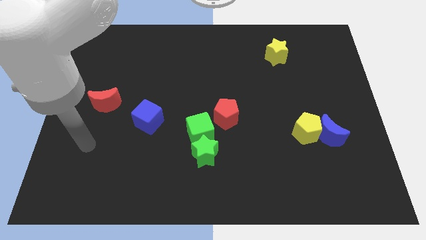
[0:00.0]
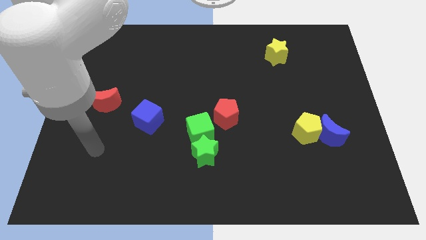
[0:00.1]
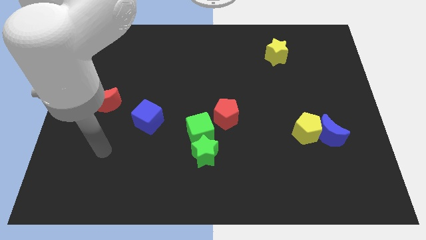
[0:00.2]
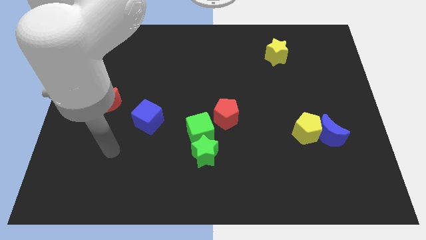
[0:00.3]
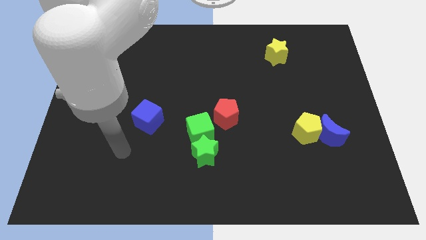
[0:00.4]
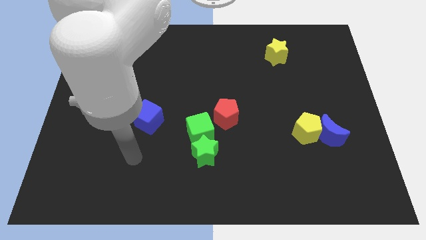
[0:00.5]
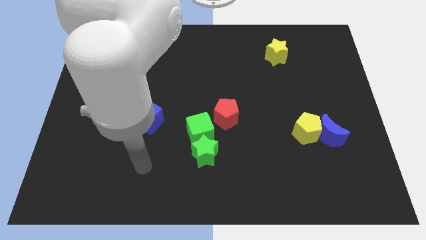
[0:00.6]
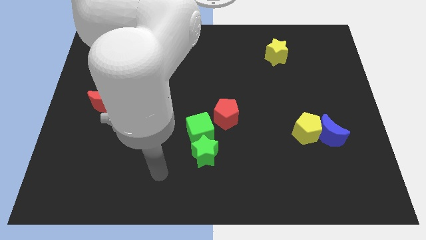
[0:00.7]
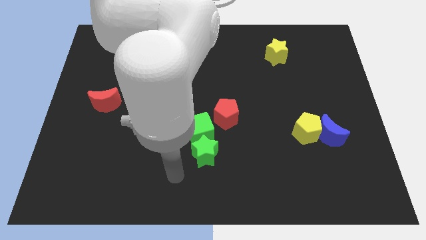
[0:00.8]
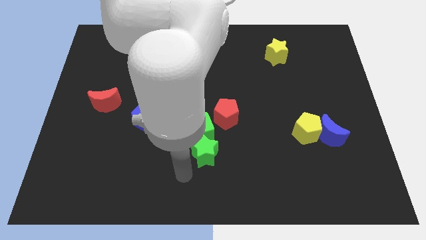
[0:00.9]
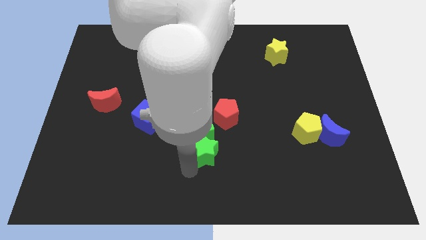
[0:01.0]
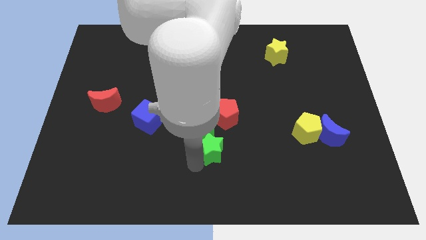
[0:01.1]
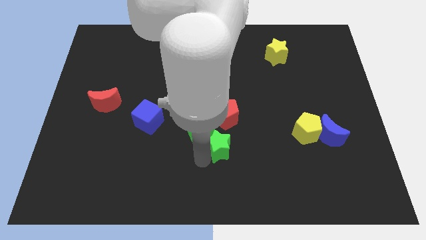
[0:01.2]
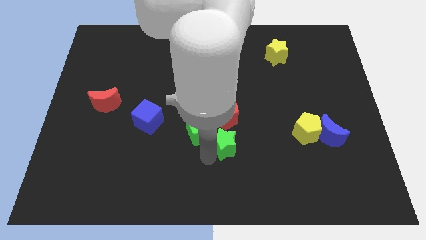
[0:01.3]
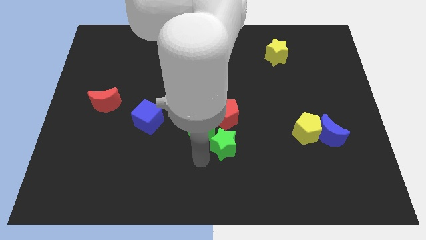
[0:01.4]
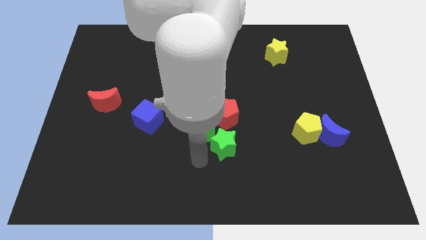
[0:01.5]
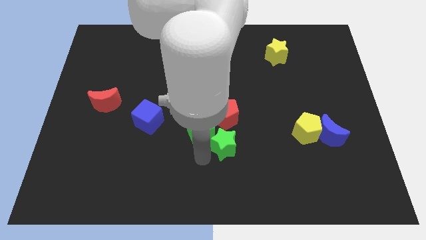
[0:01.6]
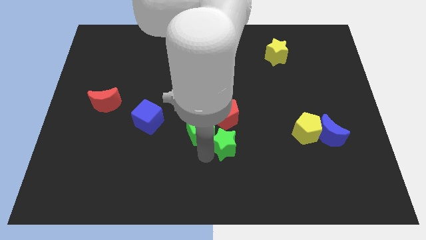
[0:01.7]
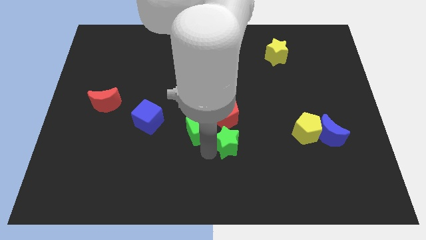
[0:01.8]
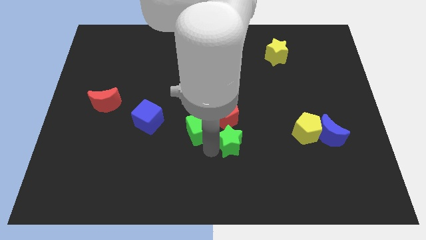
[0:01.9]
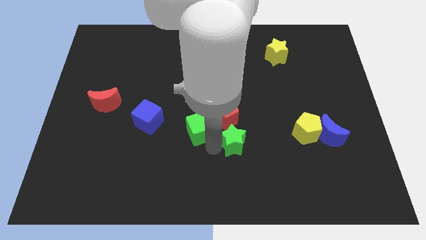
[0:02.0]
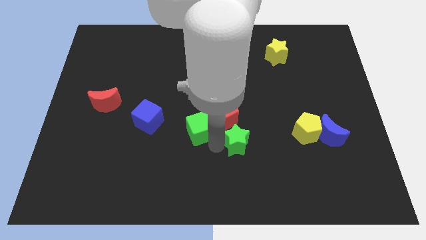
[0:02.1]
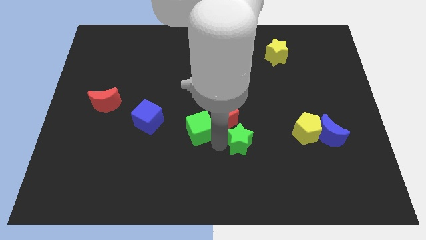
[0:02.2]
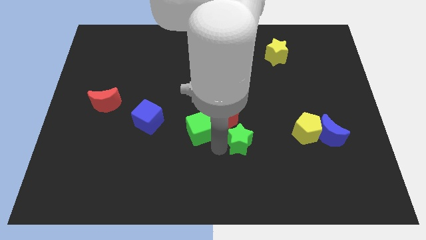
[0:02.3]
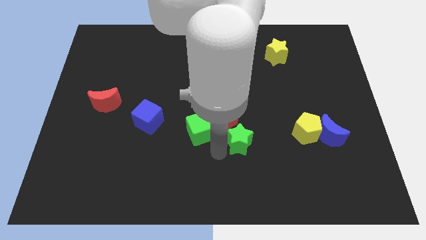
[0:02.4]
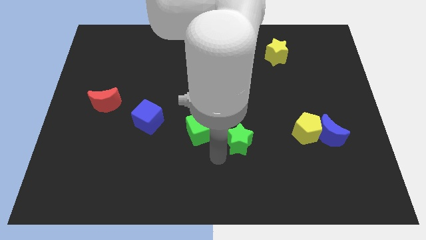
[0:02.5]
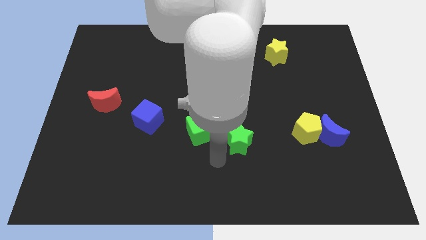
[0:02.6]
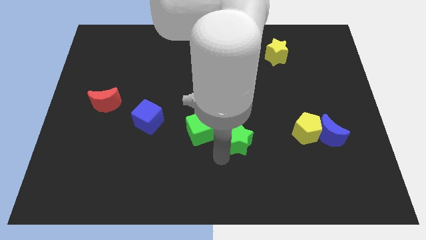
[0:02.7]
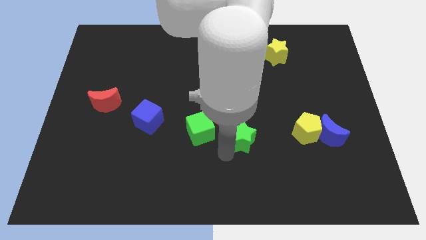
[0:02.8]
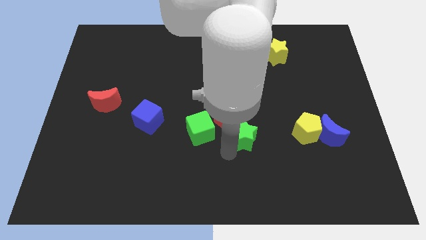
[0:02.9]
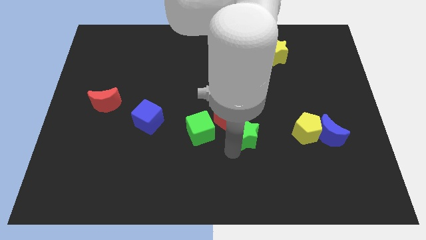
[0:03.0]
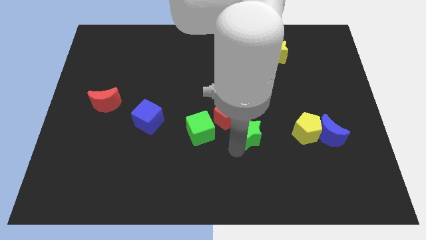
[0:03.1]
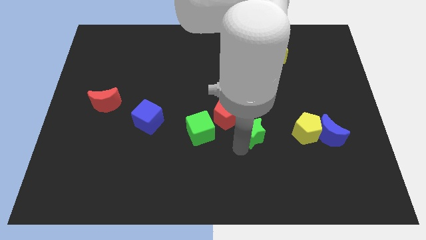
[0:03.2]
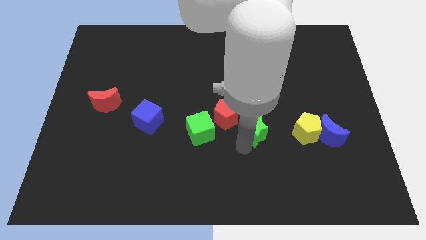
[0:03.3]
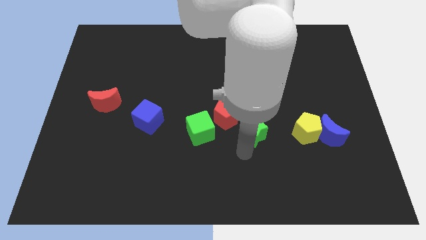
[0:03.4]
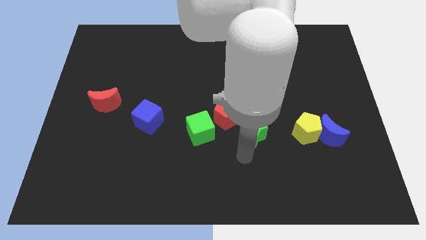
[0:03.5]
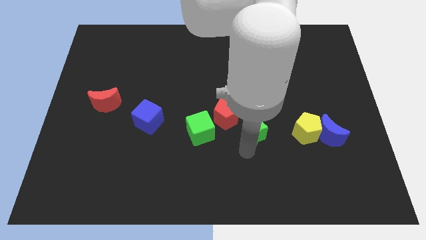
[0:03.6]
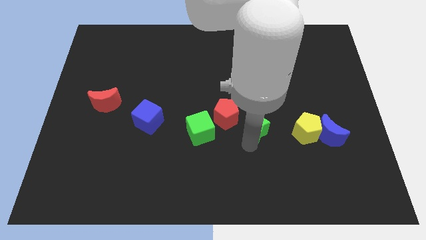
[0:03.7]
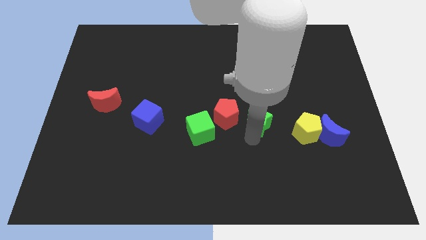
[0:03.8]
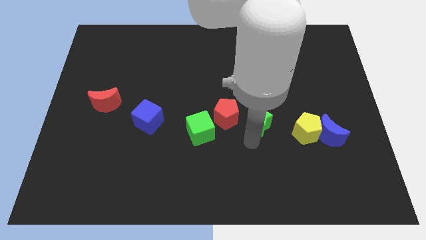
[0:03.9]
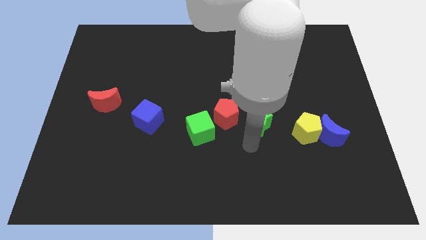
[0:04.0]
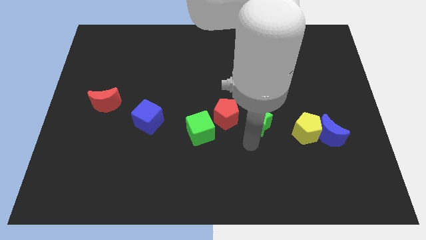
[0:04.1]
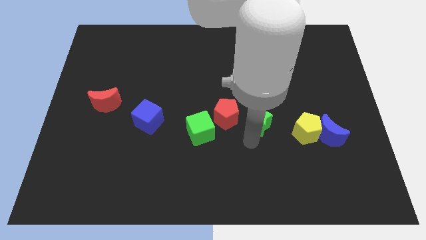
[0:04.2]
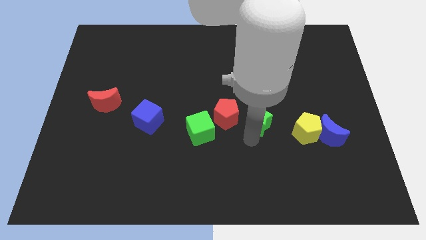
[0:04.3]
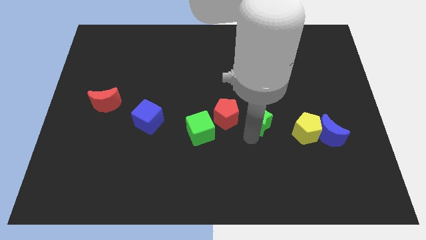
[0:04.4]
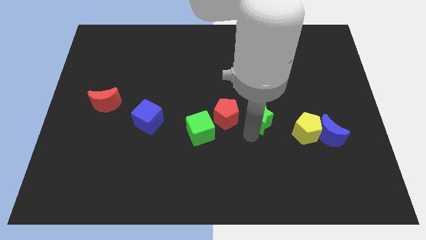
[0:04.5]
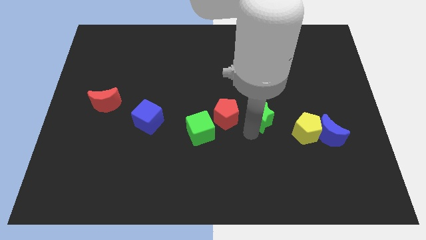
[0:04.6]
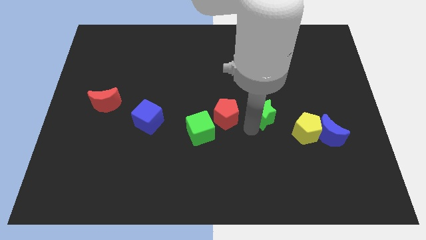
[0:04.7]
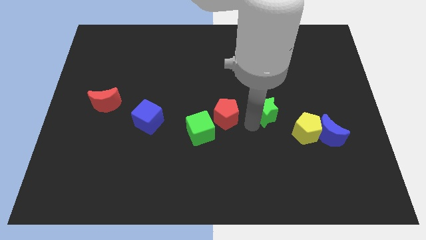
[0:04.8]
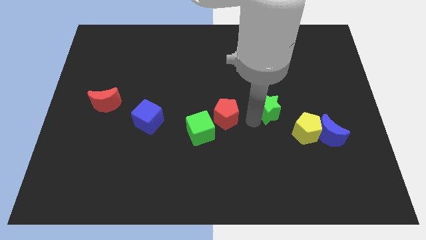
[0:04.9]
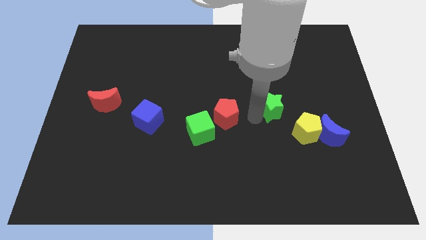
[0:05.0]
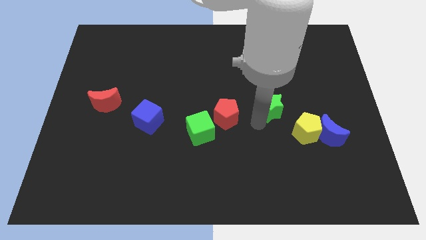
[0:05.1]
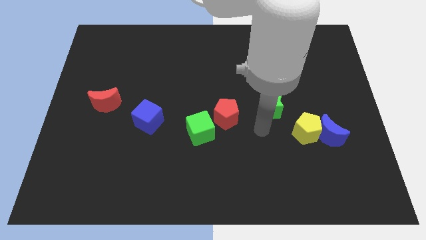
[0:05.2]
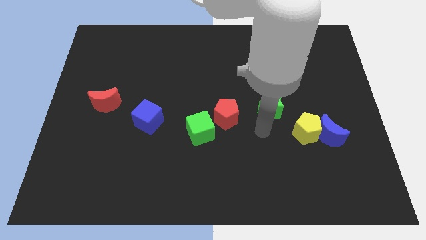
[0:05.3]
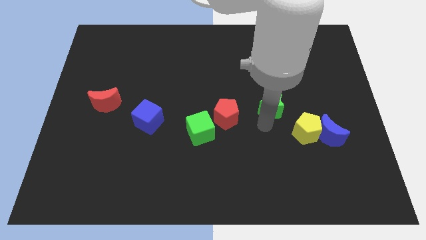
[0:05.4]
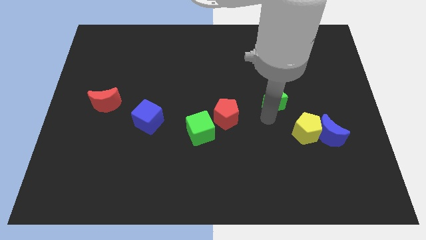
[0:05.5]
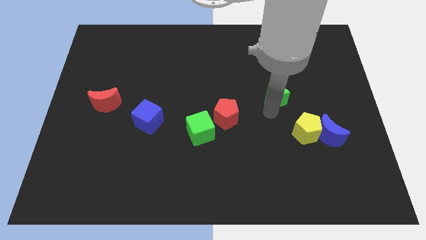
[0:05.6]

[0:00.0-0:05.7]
put the green star to the bottom of the yellow star

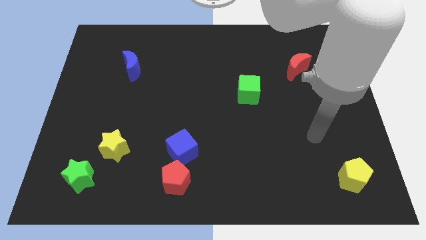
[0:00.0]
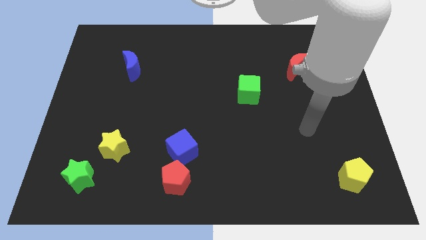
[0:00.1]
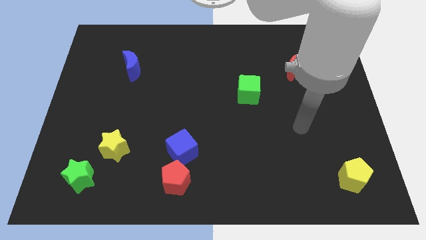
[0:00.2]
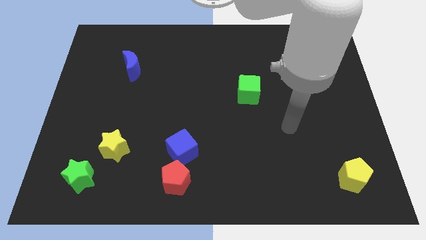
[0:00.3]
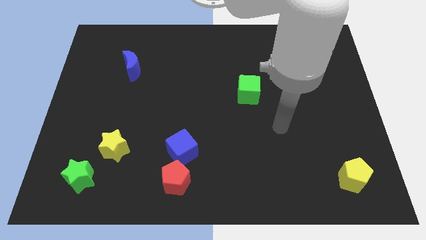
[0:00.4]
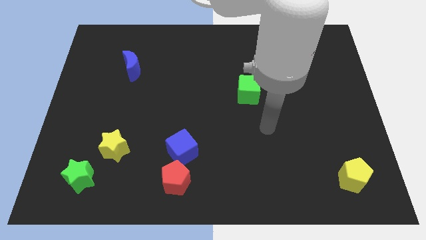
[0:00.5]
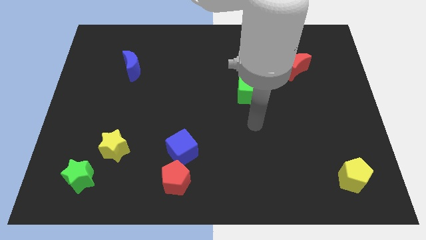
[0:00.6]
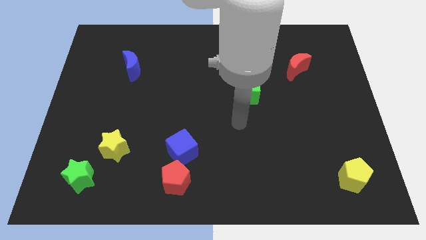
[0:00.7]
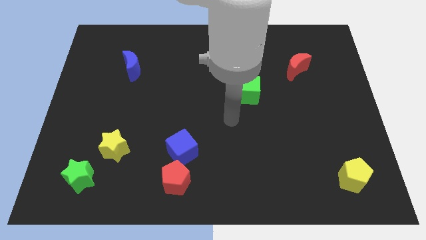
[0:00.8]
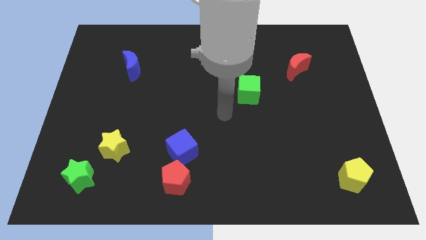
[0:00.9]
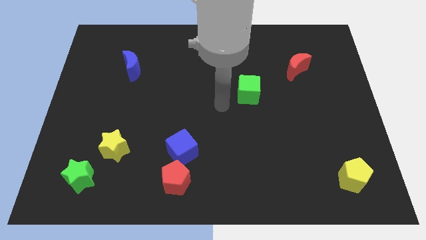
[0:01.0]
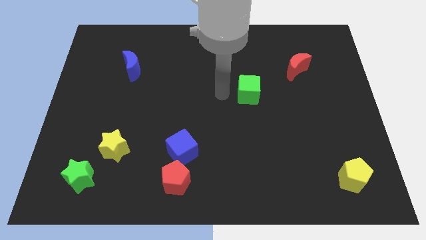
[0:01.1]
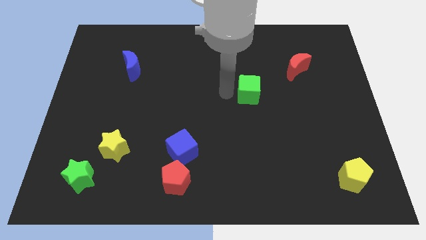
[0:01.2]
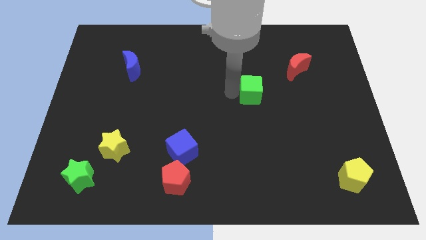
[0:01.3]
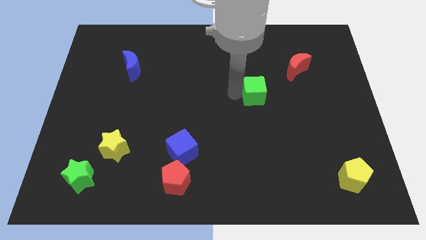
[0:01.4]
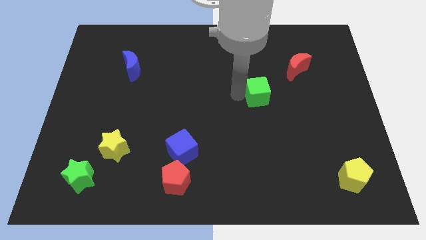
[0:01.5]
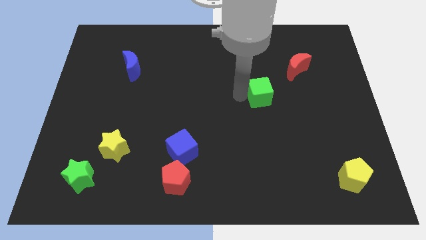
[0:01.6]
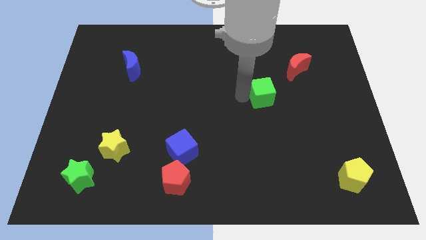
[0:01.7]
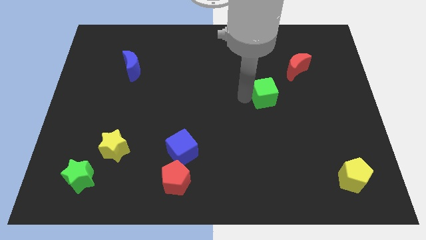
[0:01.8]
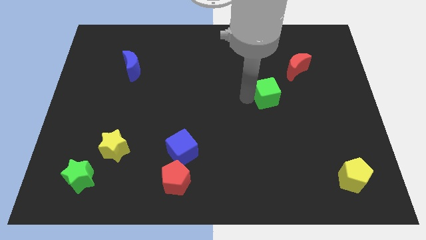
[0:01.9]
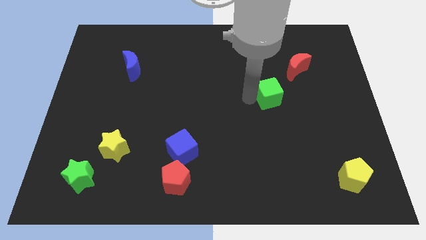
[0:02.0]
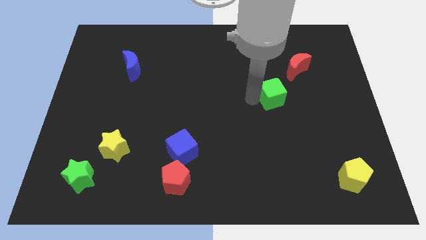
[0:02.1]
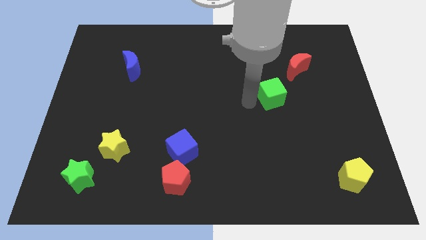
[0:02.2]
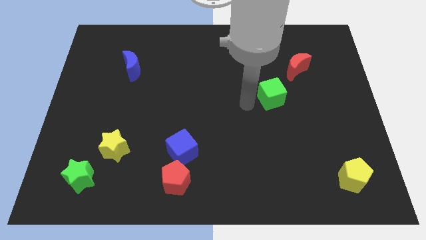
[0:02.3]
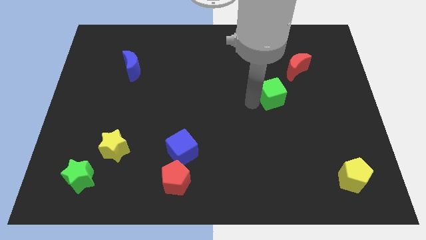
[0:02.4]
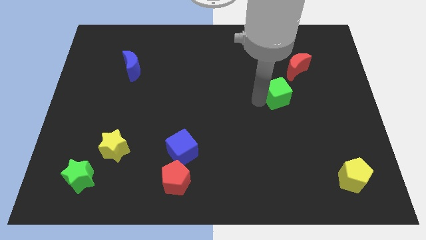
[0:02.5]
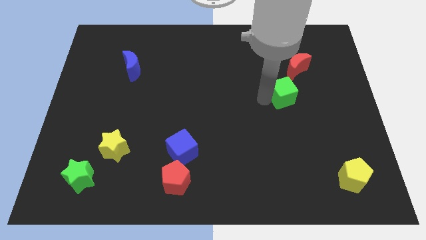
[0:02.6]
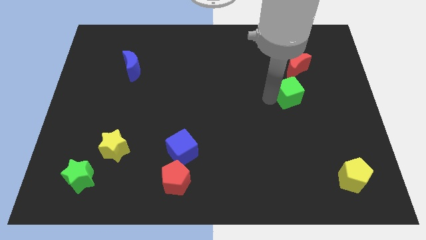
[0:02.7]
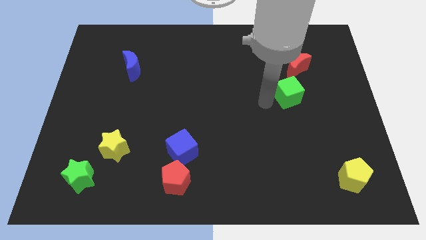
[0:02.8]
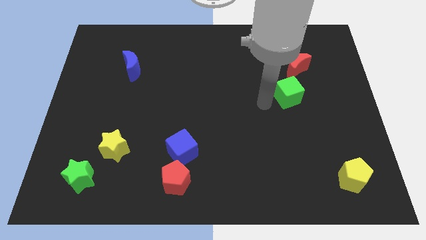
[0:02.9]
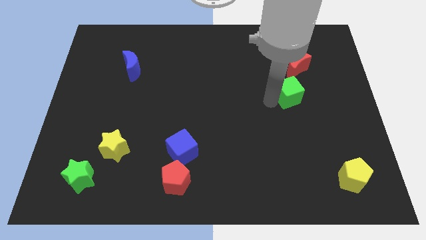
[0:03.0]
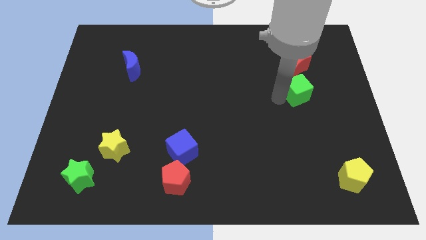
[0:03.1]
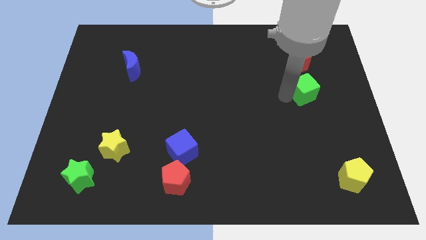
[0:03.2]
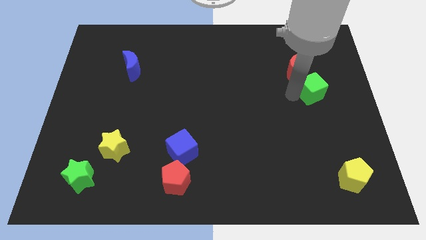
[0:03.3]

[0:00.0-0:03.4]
move the green cube to the bottom right of the red moon
